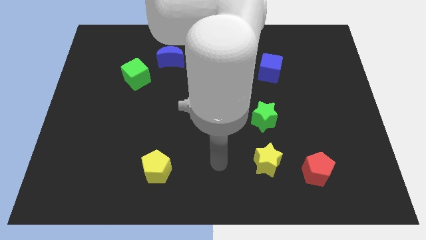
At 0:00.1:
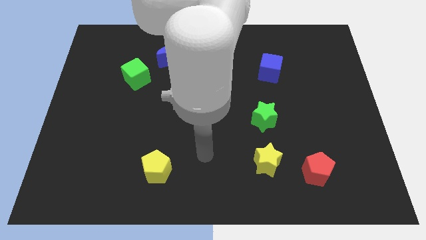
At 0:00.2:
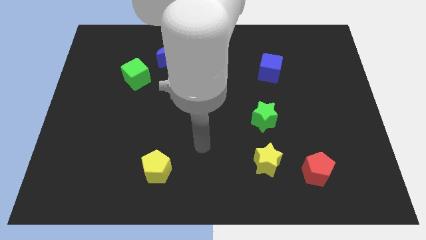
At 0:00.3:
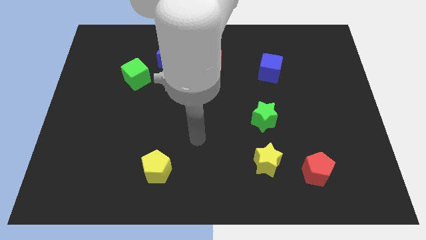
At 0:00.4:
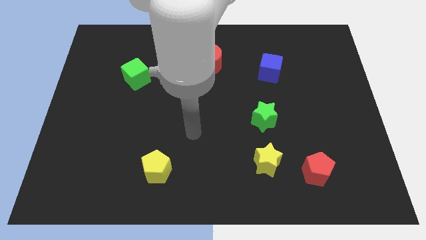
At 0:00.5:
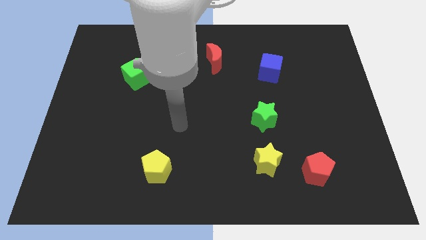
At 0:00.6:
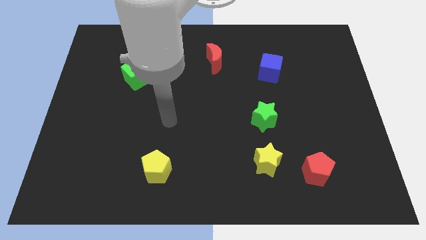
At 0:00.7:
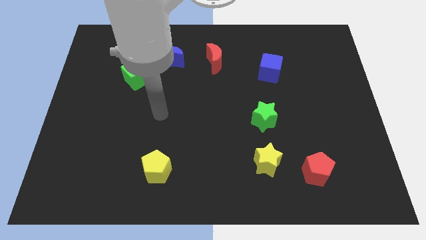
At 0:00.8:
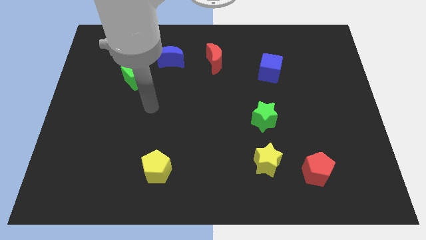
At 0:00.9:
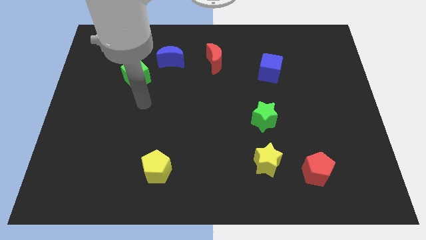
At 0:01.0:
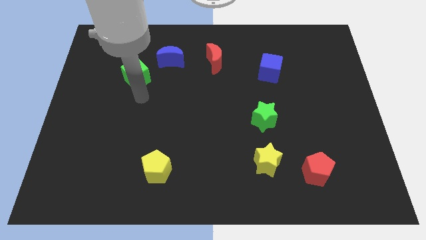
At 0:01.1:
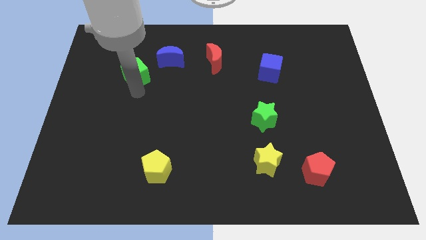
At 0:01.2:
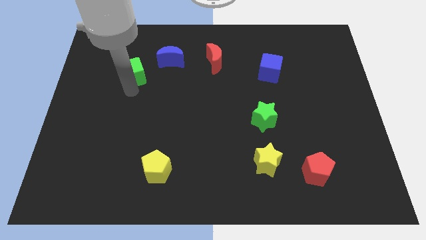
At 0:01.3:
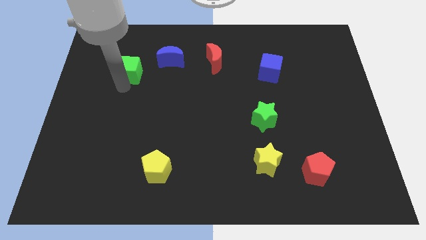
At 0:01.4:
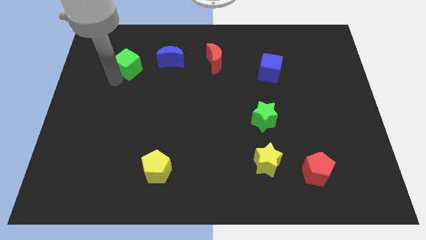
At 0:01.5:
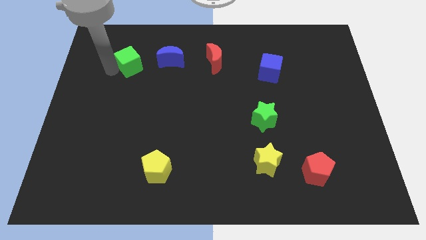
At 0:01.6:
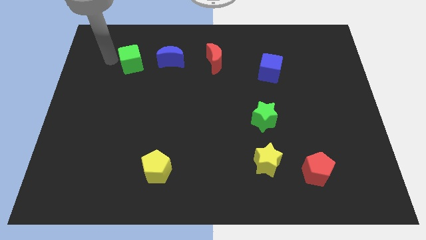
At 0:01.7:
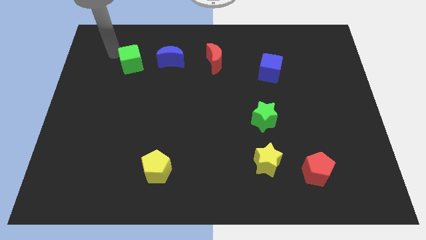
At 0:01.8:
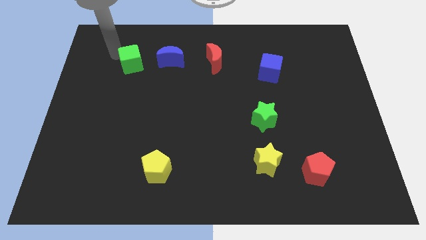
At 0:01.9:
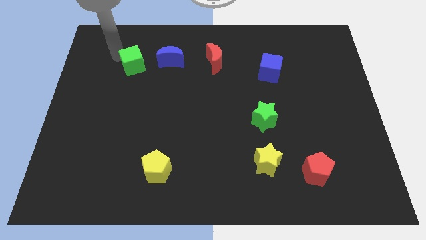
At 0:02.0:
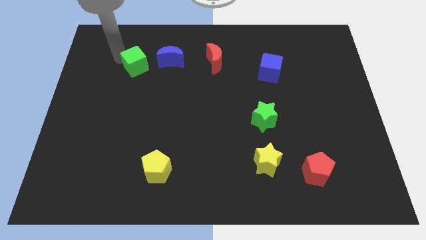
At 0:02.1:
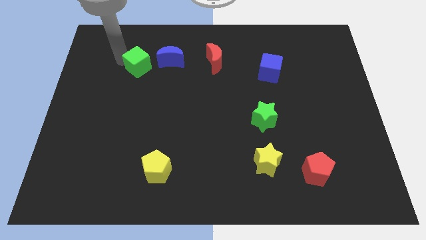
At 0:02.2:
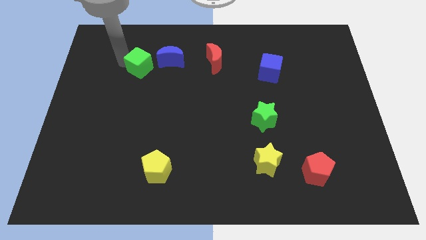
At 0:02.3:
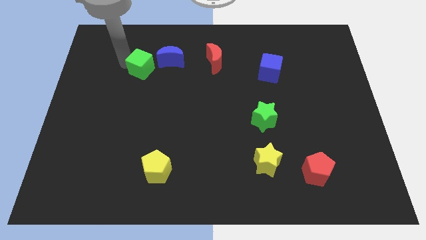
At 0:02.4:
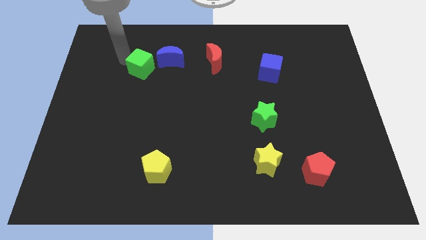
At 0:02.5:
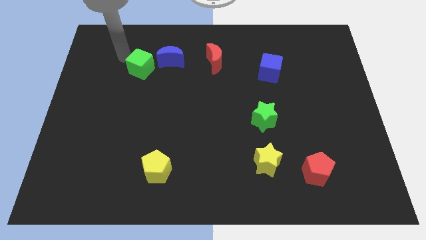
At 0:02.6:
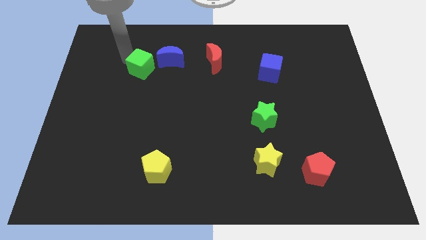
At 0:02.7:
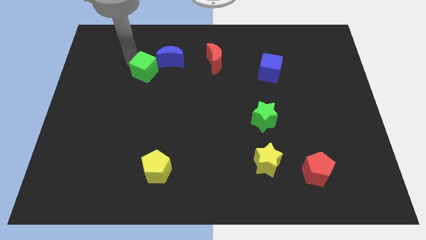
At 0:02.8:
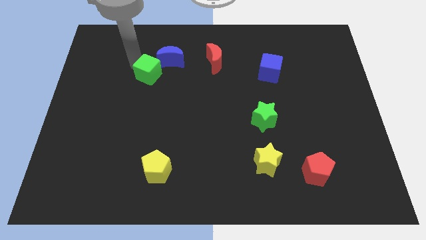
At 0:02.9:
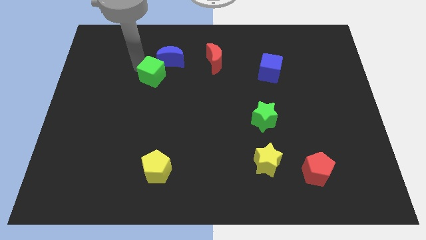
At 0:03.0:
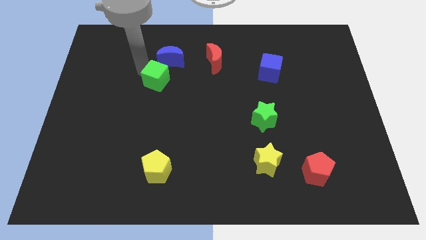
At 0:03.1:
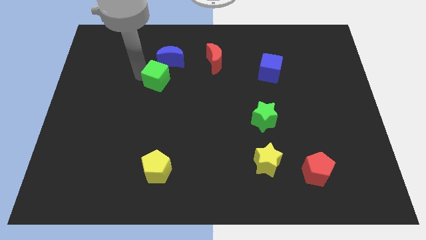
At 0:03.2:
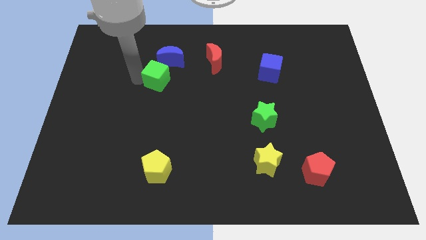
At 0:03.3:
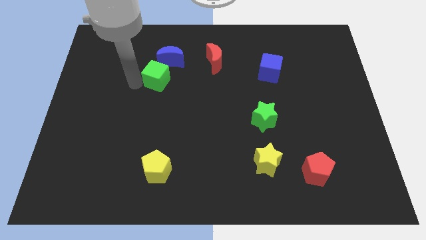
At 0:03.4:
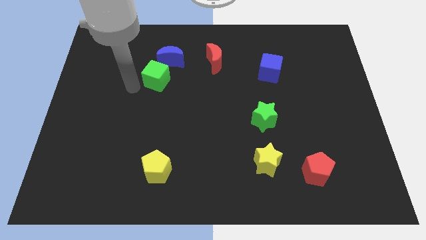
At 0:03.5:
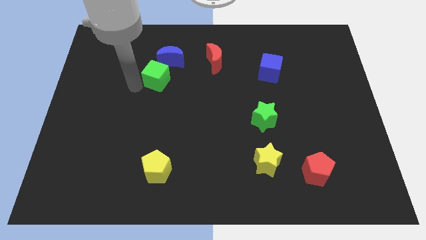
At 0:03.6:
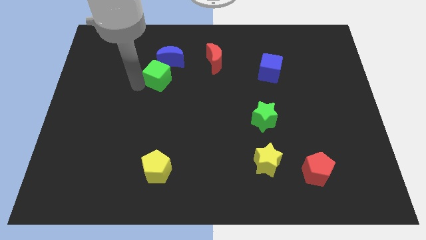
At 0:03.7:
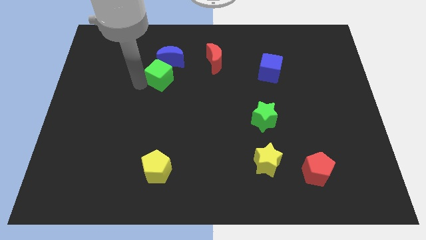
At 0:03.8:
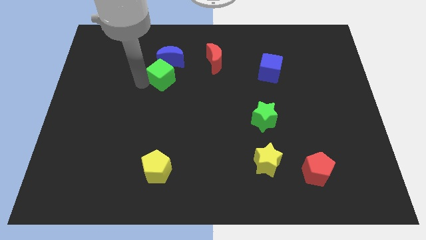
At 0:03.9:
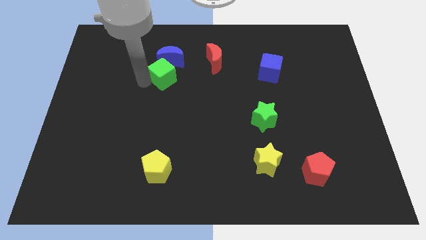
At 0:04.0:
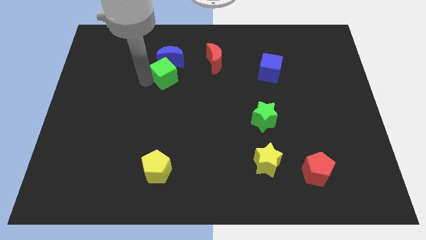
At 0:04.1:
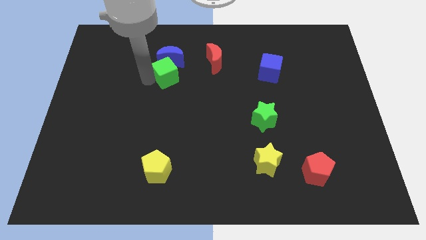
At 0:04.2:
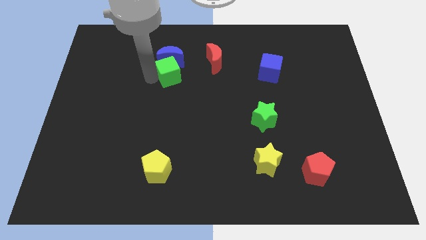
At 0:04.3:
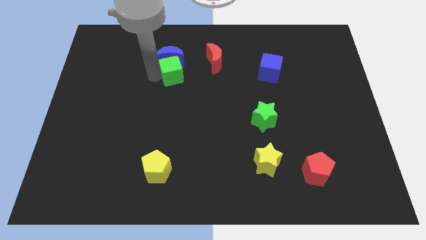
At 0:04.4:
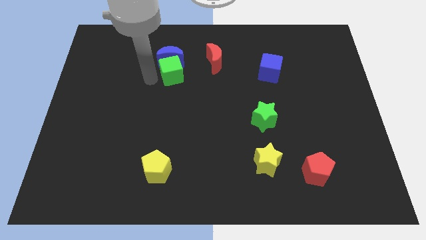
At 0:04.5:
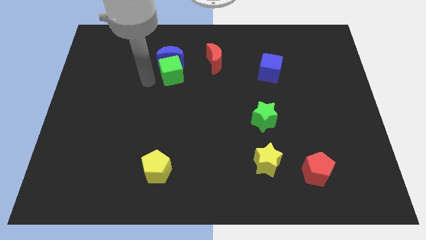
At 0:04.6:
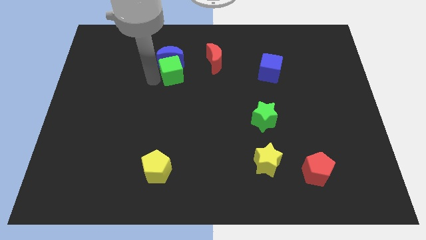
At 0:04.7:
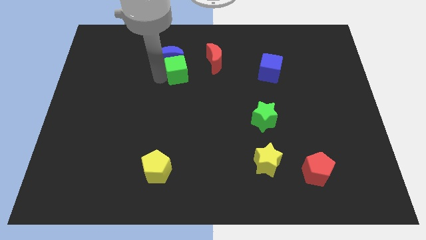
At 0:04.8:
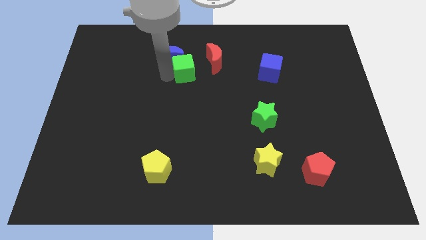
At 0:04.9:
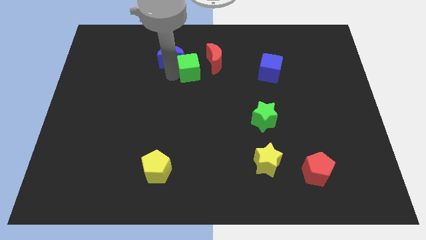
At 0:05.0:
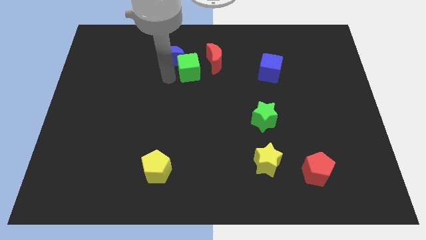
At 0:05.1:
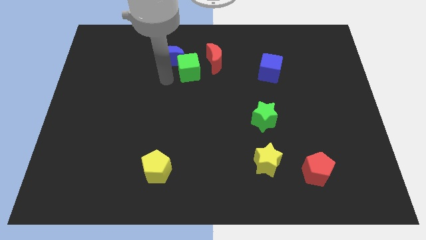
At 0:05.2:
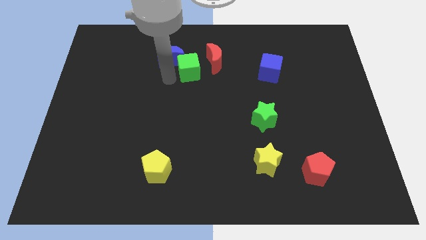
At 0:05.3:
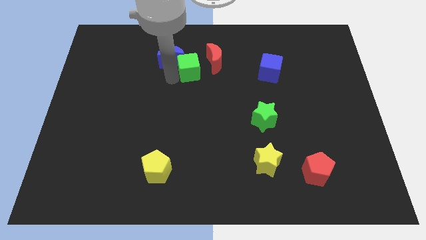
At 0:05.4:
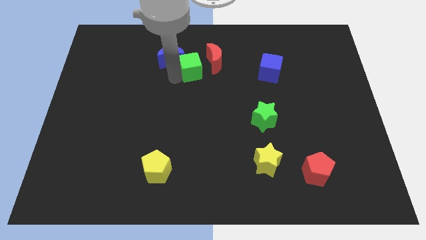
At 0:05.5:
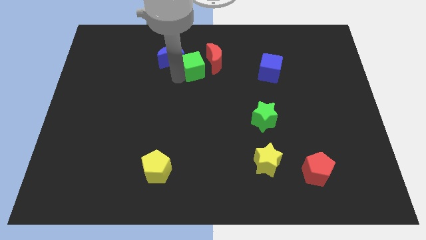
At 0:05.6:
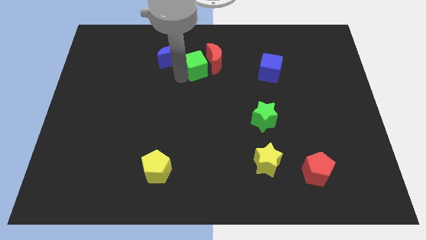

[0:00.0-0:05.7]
slide the green cube towards the red moon

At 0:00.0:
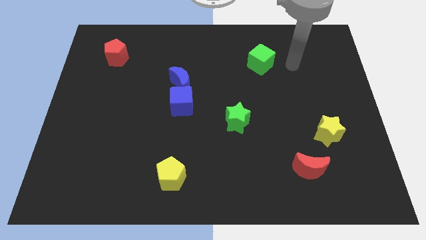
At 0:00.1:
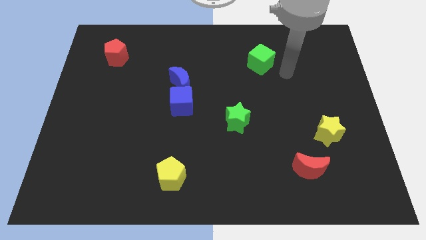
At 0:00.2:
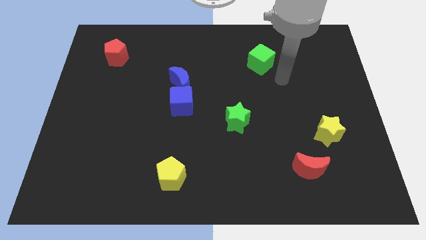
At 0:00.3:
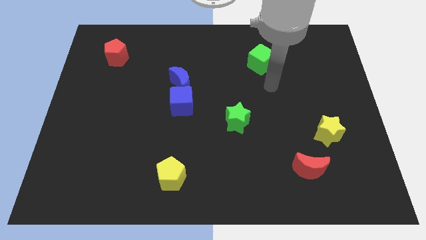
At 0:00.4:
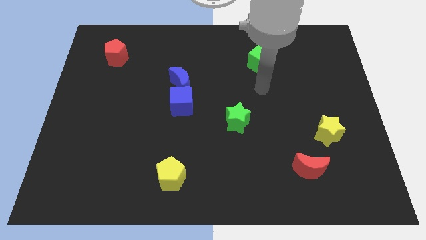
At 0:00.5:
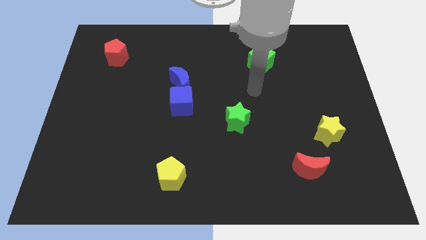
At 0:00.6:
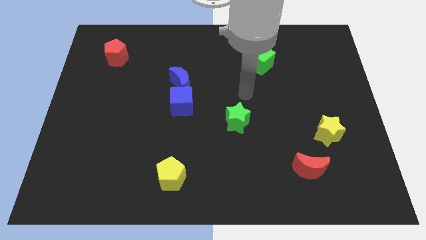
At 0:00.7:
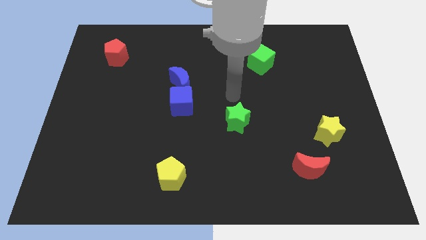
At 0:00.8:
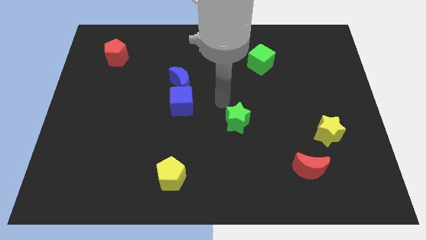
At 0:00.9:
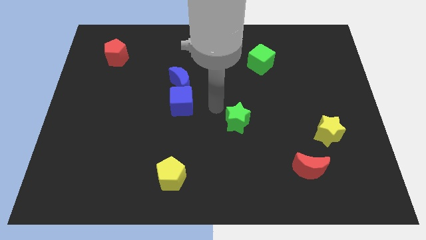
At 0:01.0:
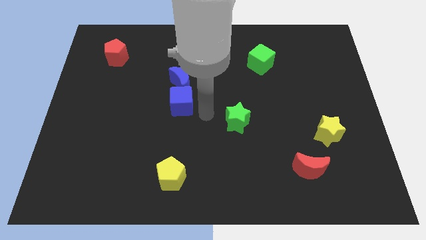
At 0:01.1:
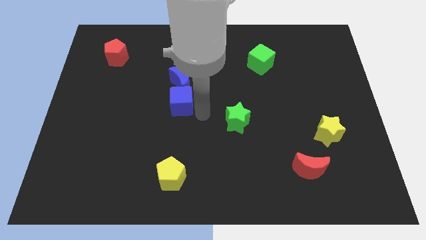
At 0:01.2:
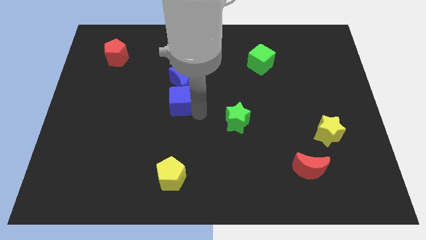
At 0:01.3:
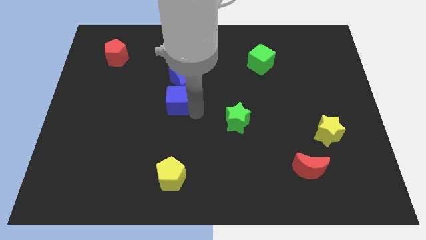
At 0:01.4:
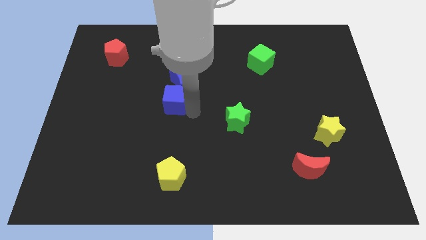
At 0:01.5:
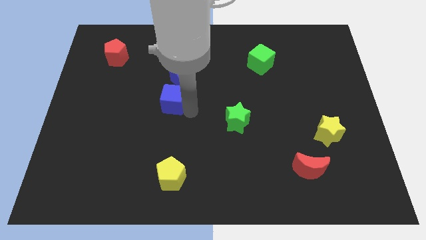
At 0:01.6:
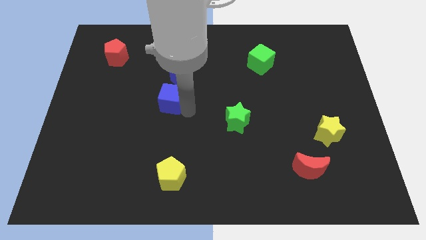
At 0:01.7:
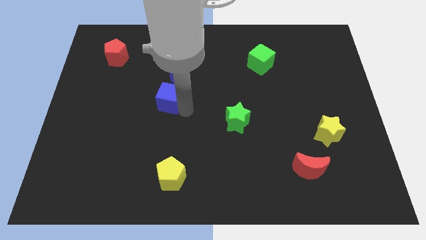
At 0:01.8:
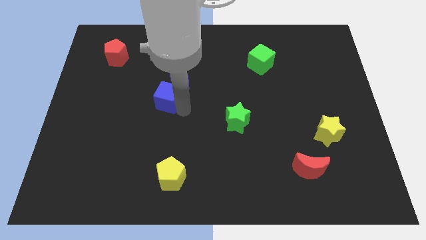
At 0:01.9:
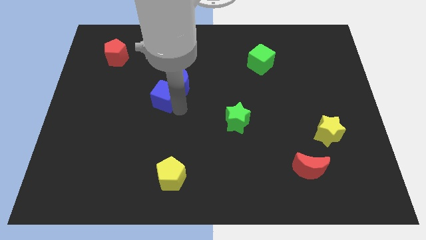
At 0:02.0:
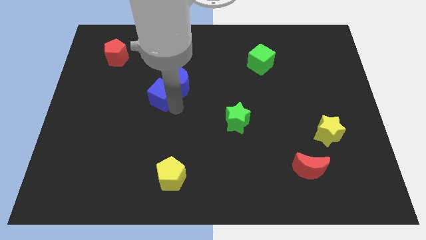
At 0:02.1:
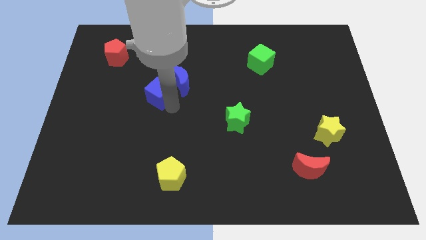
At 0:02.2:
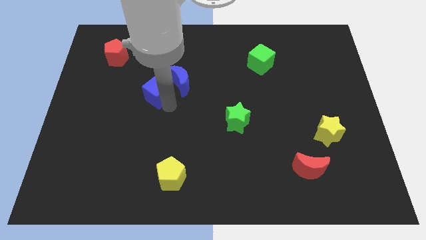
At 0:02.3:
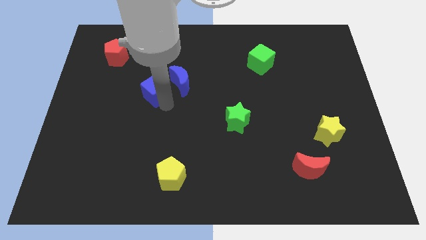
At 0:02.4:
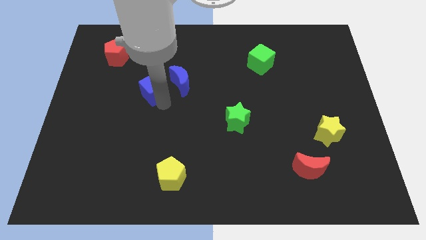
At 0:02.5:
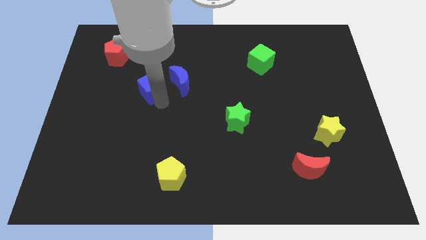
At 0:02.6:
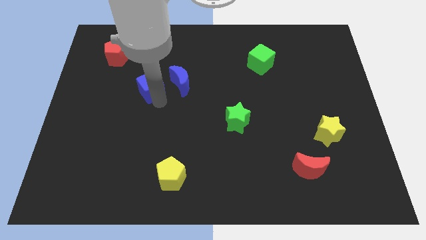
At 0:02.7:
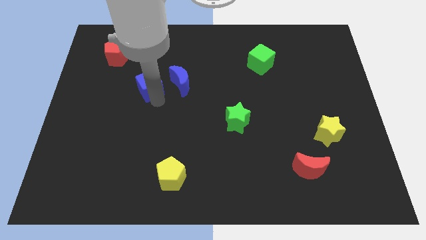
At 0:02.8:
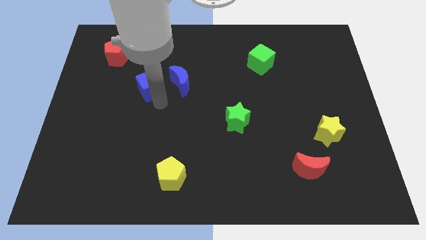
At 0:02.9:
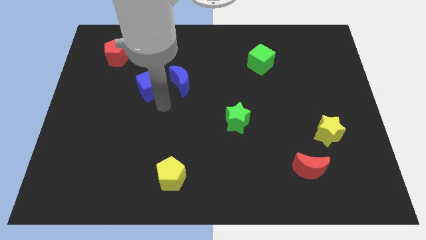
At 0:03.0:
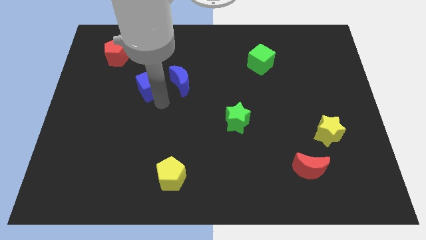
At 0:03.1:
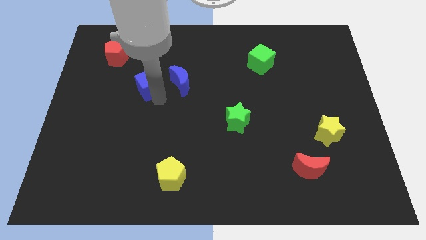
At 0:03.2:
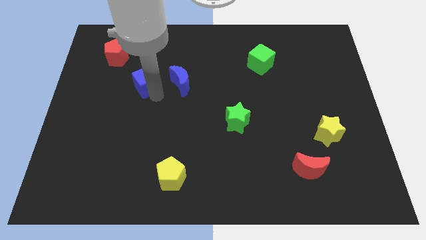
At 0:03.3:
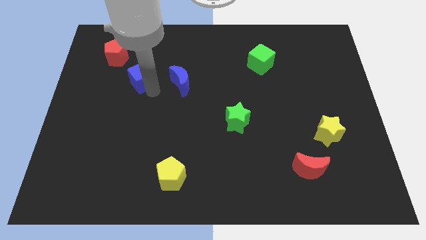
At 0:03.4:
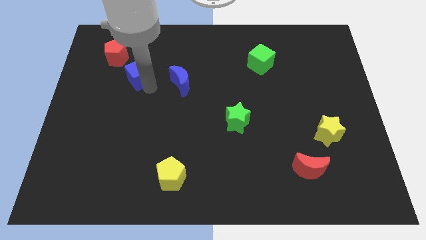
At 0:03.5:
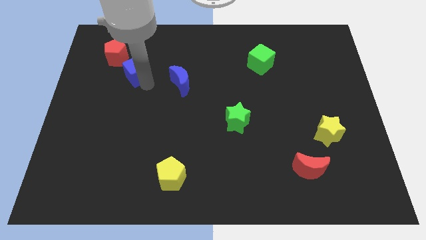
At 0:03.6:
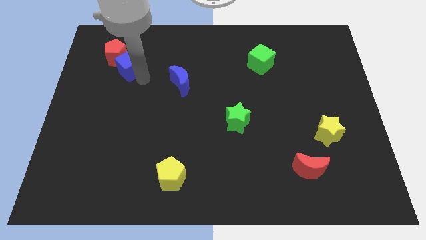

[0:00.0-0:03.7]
slide the blue cube close to the red pentagon
